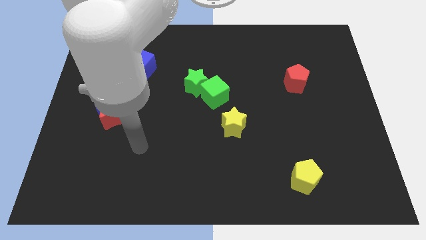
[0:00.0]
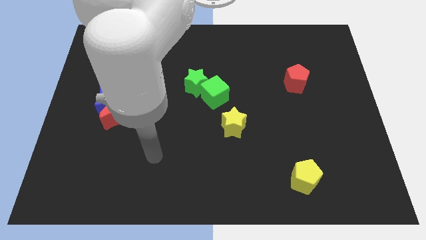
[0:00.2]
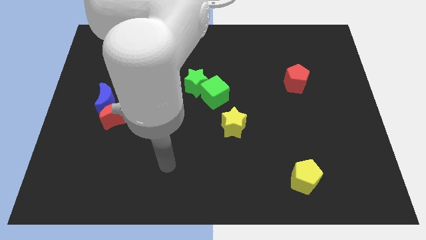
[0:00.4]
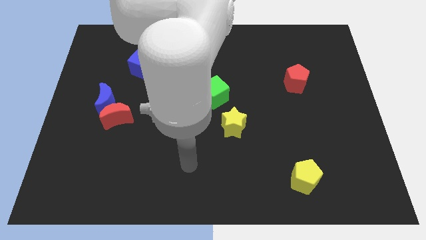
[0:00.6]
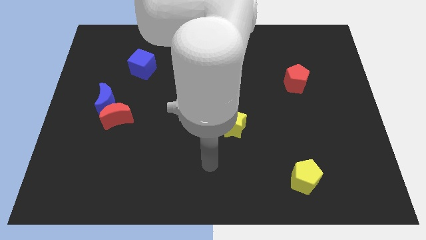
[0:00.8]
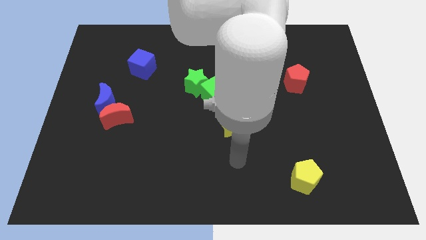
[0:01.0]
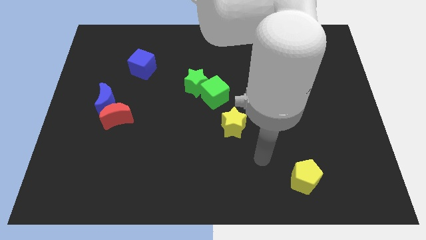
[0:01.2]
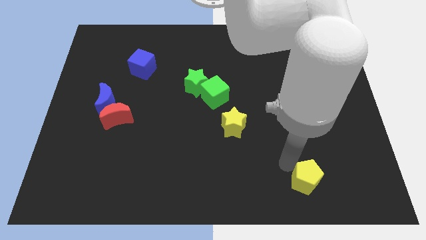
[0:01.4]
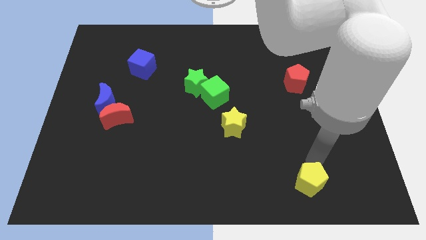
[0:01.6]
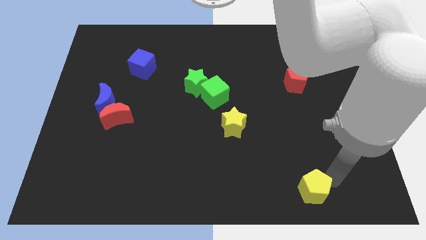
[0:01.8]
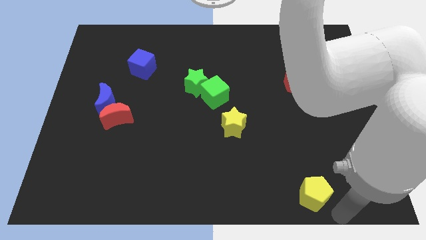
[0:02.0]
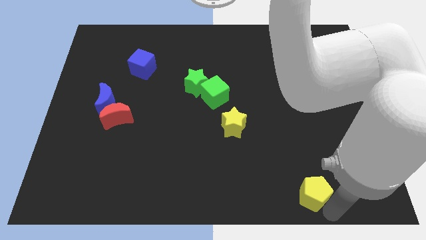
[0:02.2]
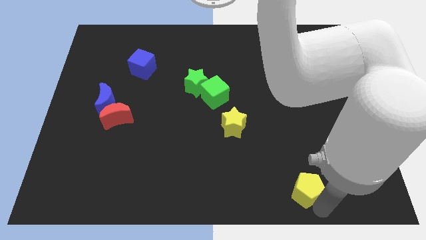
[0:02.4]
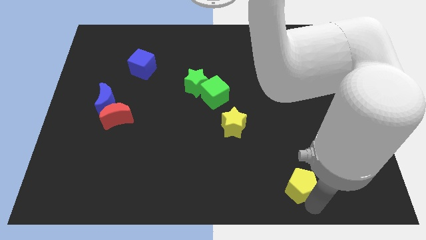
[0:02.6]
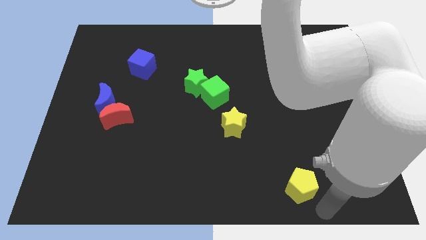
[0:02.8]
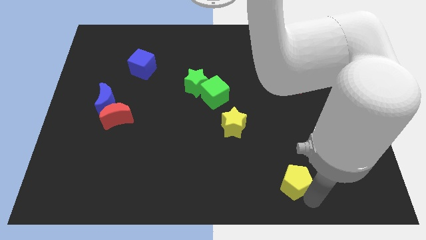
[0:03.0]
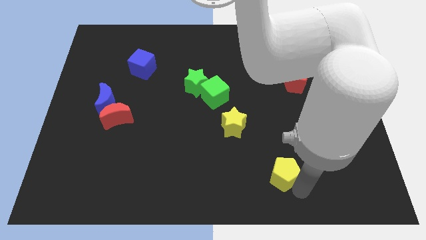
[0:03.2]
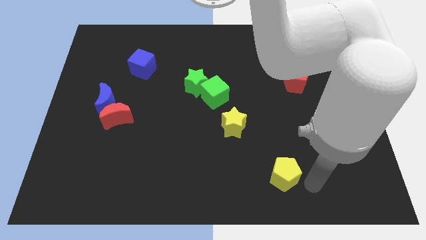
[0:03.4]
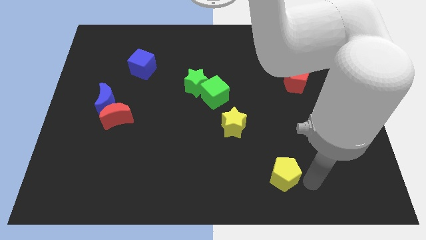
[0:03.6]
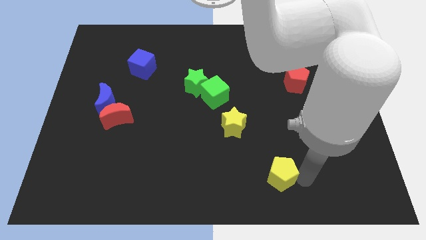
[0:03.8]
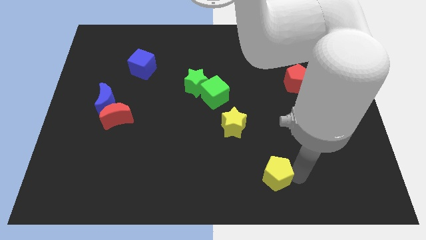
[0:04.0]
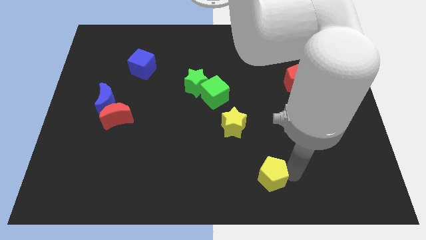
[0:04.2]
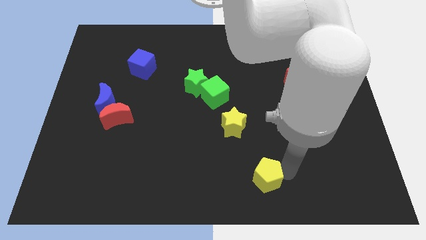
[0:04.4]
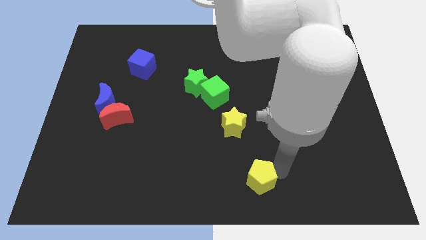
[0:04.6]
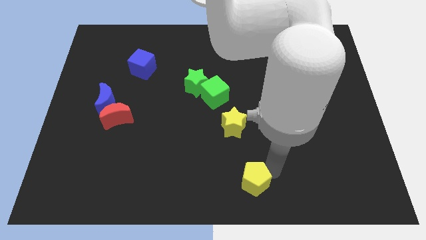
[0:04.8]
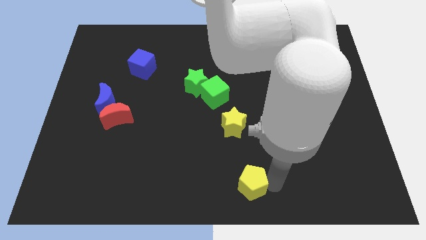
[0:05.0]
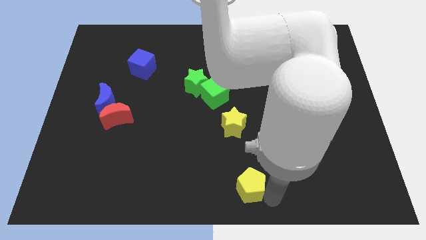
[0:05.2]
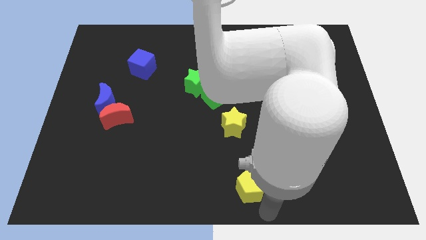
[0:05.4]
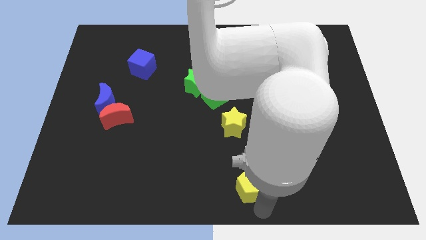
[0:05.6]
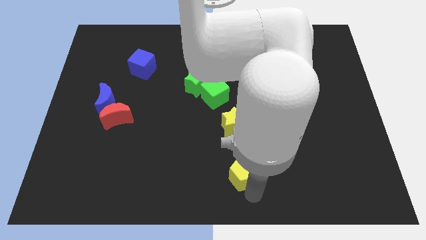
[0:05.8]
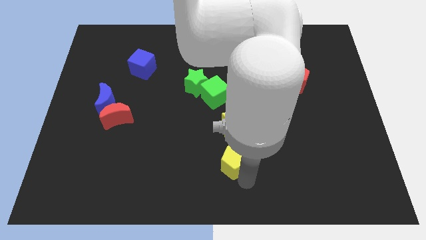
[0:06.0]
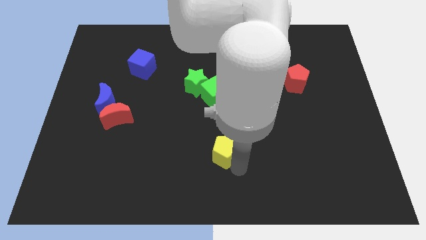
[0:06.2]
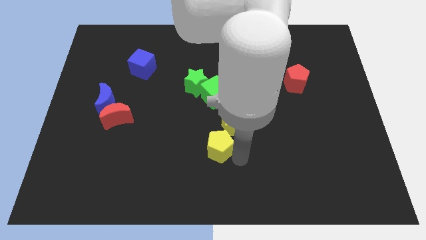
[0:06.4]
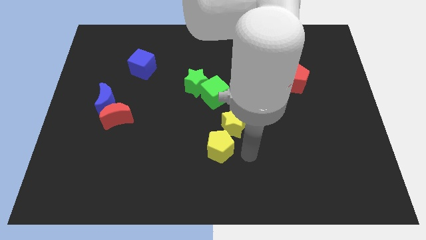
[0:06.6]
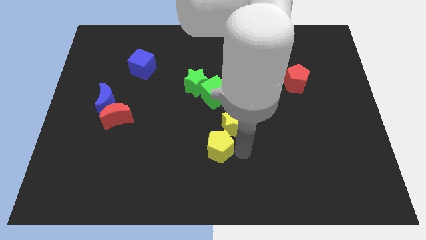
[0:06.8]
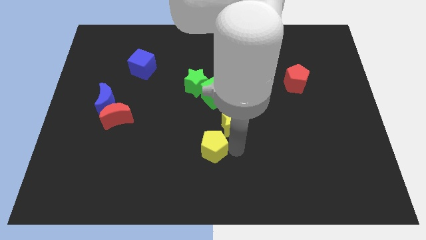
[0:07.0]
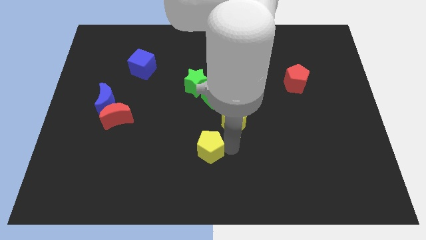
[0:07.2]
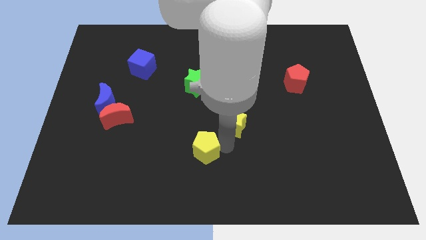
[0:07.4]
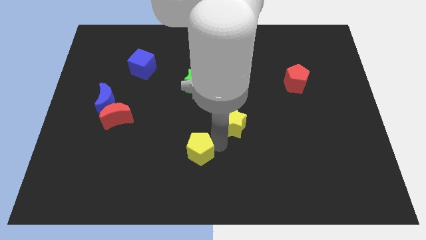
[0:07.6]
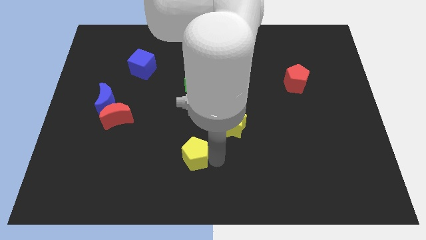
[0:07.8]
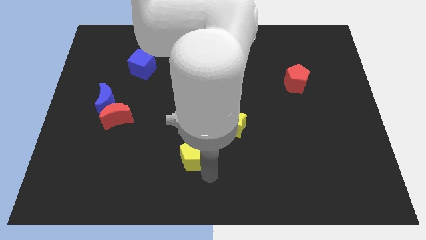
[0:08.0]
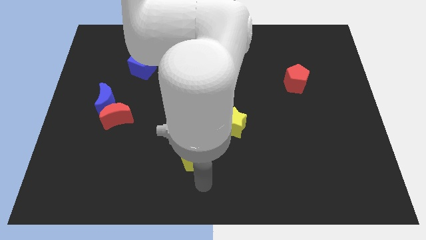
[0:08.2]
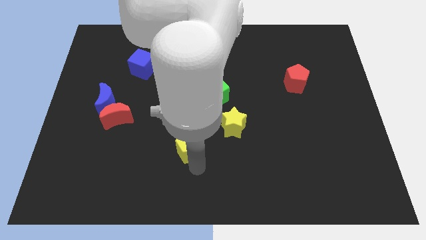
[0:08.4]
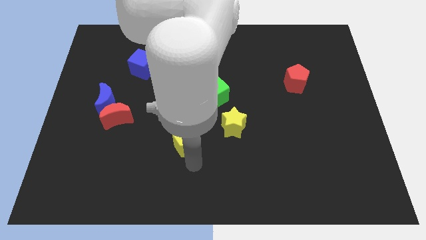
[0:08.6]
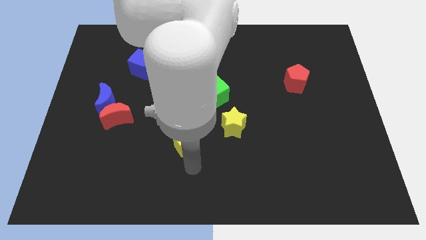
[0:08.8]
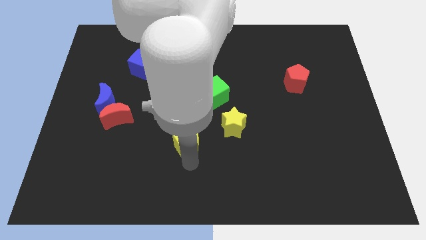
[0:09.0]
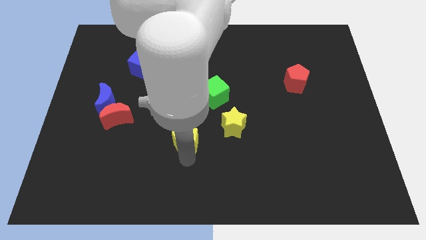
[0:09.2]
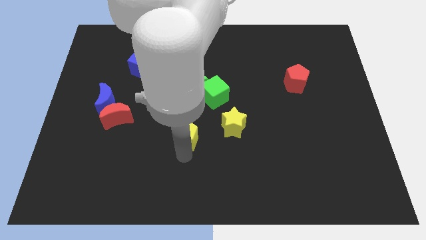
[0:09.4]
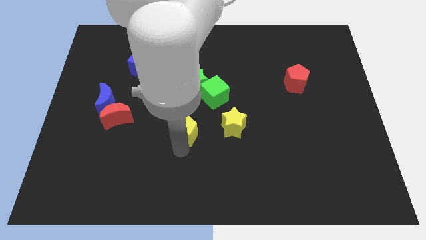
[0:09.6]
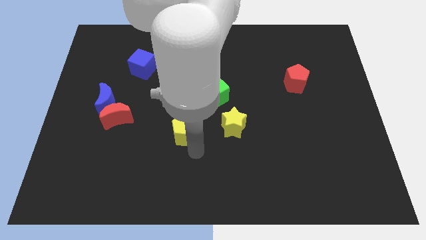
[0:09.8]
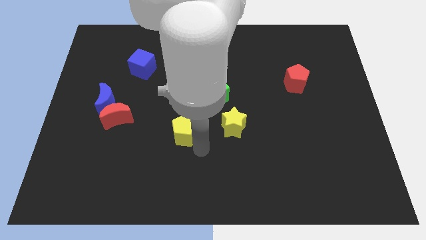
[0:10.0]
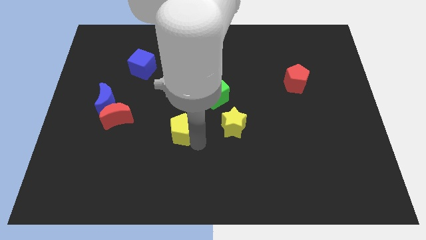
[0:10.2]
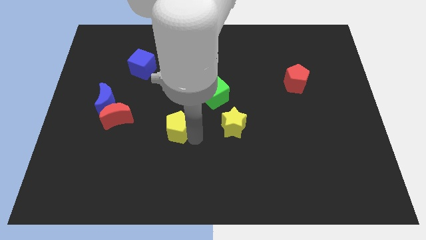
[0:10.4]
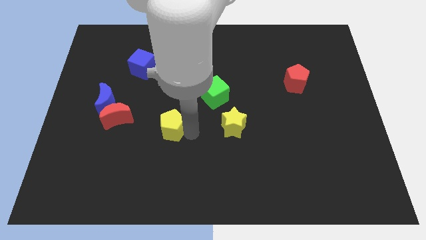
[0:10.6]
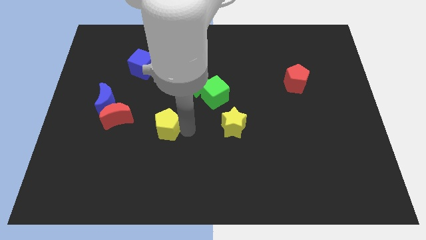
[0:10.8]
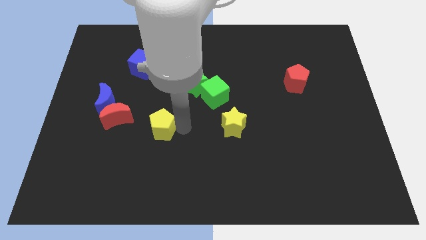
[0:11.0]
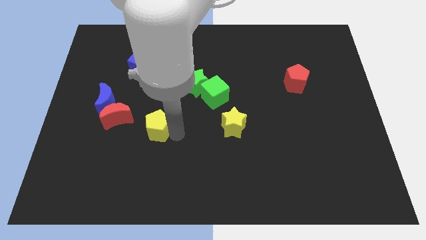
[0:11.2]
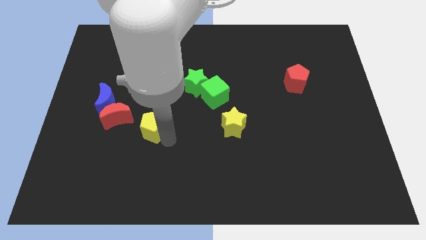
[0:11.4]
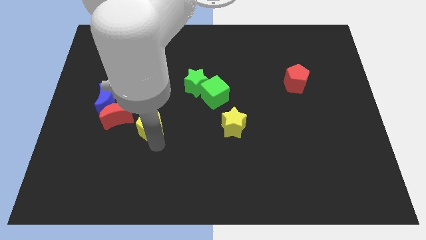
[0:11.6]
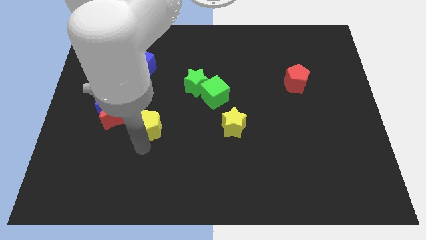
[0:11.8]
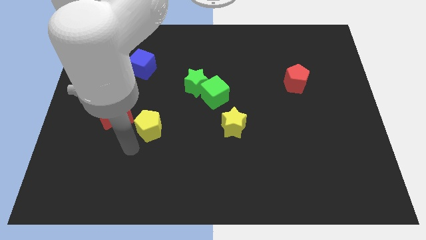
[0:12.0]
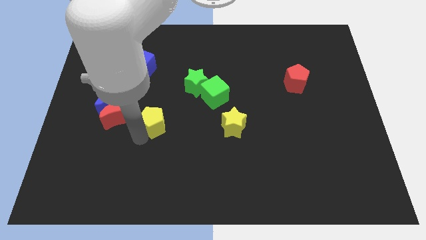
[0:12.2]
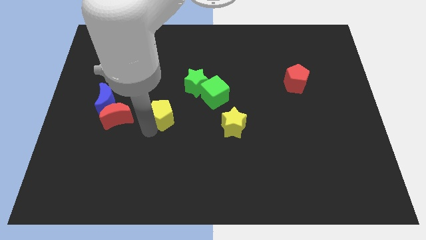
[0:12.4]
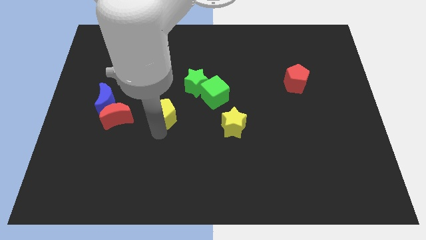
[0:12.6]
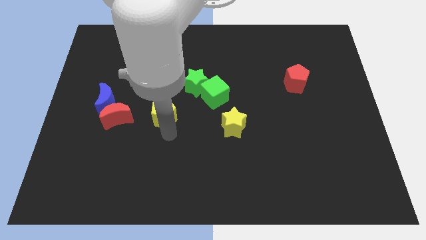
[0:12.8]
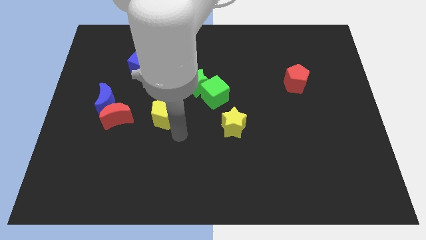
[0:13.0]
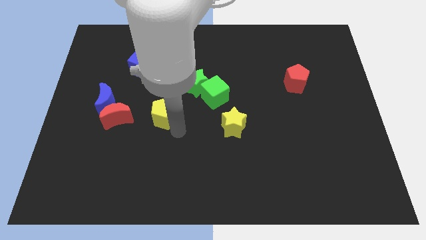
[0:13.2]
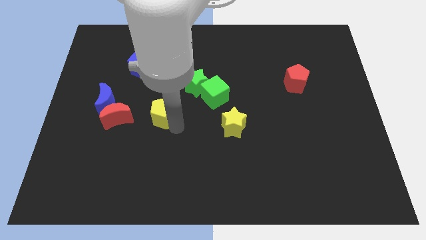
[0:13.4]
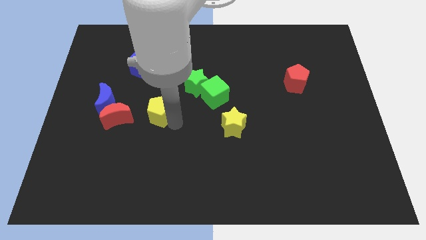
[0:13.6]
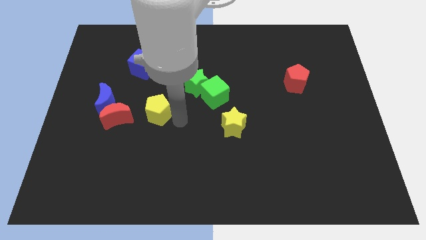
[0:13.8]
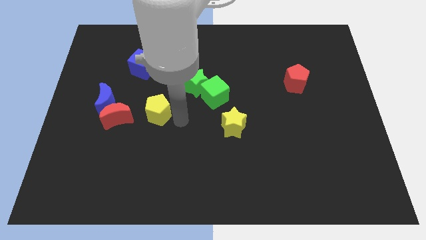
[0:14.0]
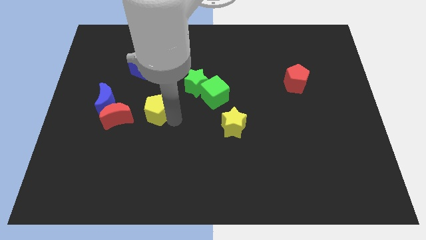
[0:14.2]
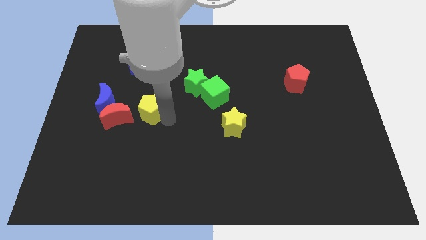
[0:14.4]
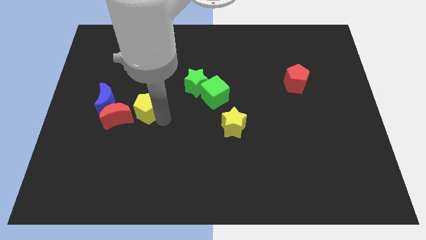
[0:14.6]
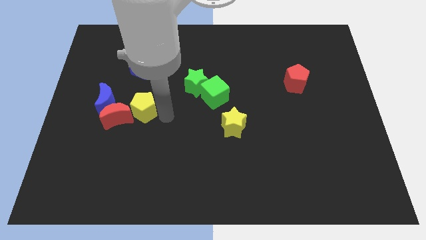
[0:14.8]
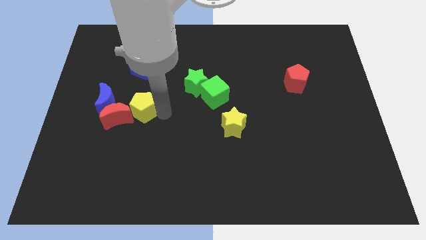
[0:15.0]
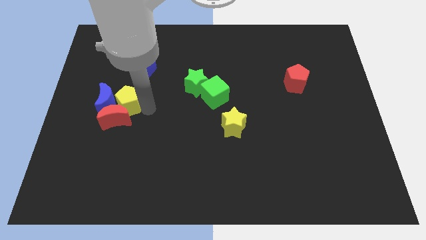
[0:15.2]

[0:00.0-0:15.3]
slide the yellow pentagon next to the blue moon
